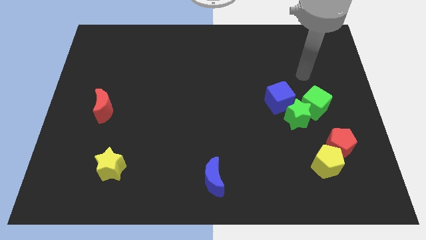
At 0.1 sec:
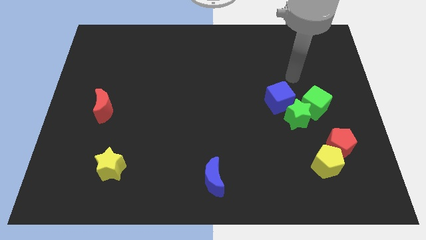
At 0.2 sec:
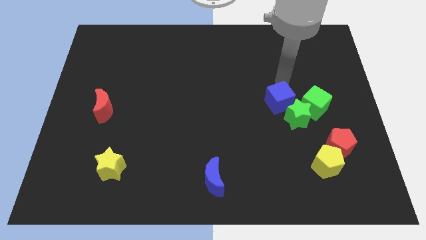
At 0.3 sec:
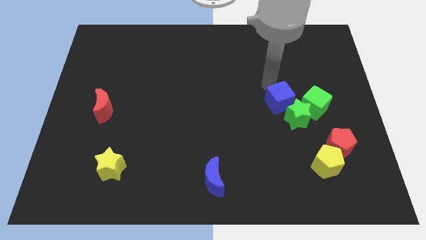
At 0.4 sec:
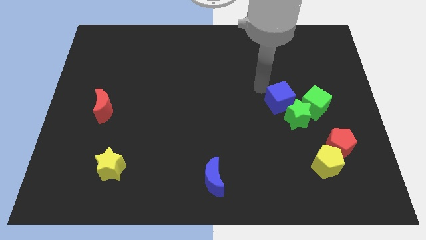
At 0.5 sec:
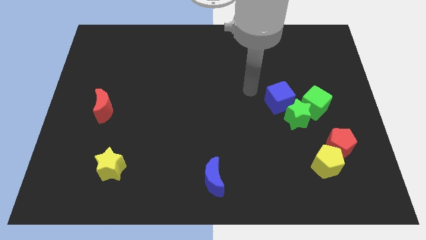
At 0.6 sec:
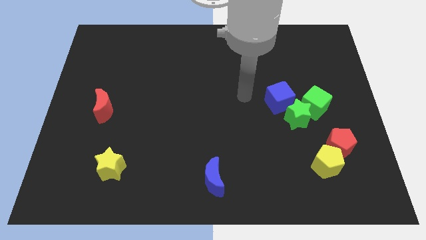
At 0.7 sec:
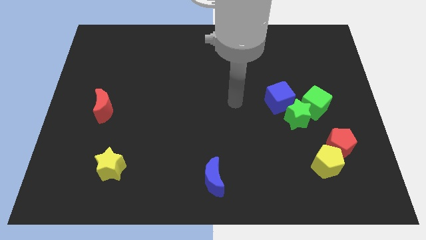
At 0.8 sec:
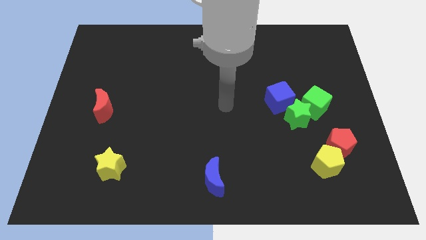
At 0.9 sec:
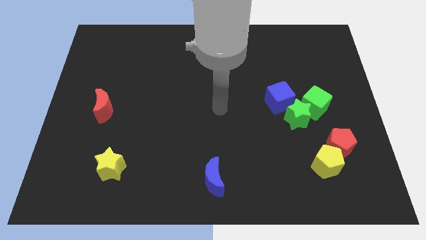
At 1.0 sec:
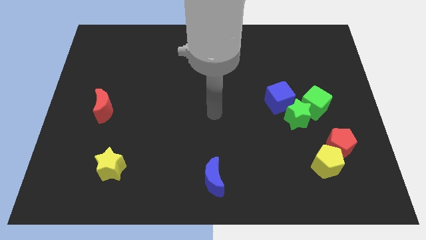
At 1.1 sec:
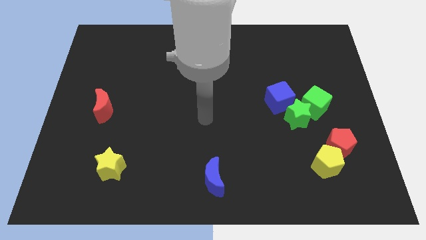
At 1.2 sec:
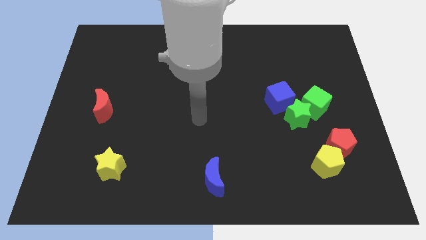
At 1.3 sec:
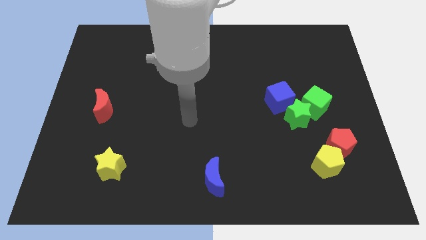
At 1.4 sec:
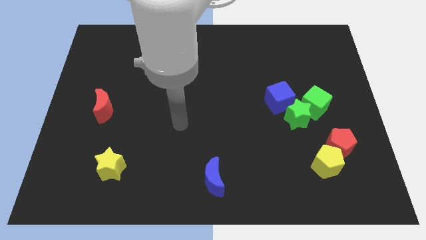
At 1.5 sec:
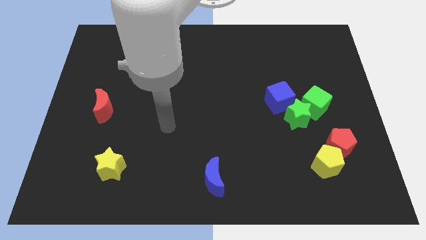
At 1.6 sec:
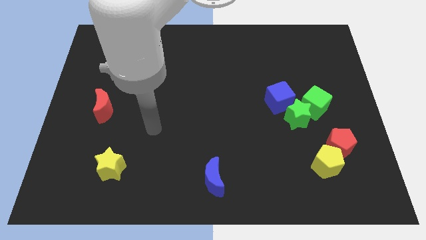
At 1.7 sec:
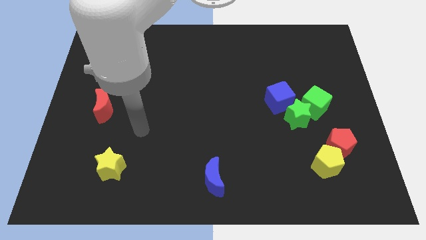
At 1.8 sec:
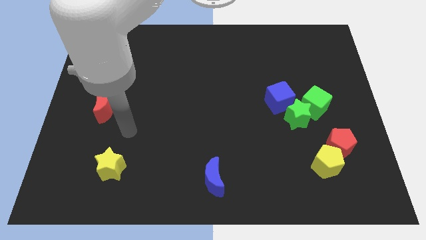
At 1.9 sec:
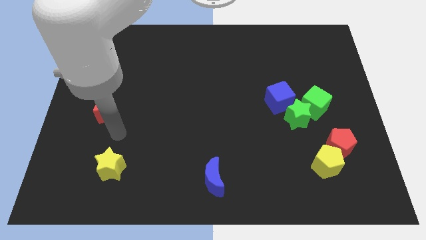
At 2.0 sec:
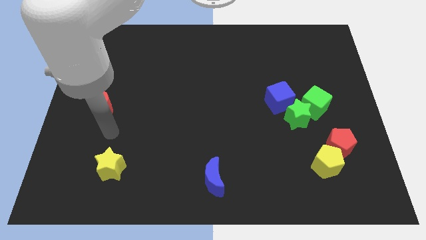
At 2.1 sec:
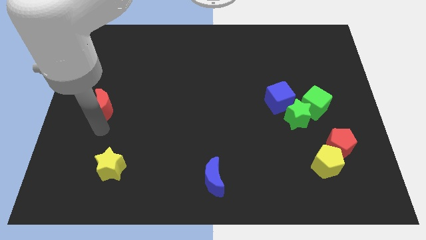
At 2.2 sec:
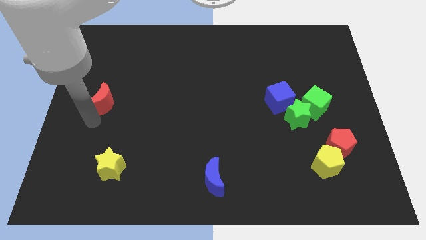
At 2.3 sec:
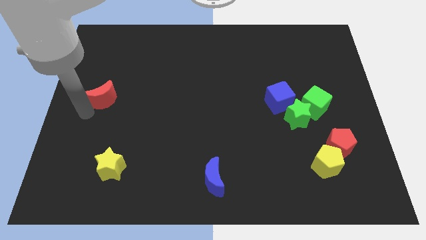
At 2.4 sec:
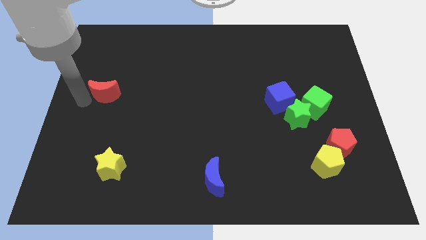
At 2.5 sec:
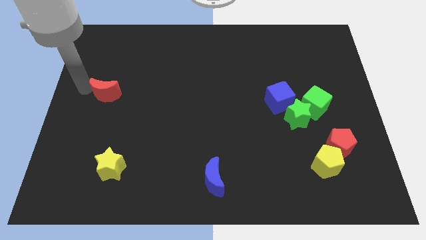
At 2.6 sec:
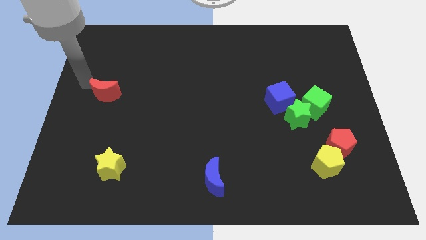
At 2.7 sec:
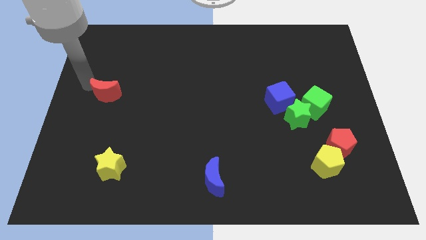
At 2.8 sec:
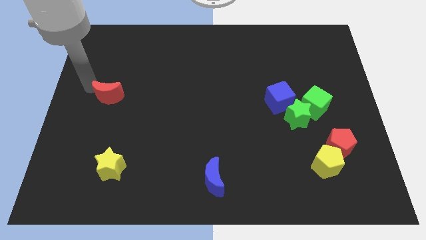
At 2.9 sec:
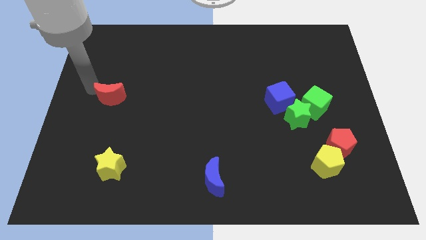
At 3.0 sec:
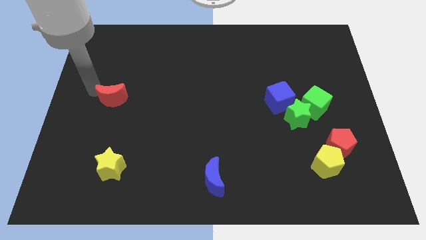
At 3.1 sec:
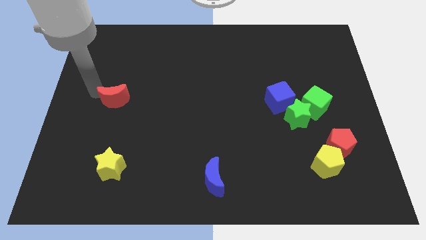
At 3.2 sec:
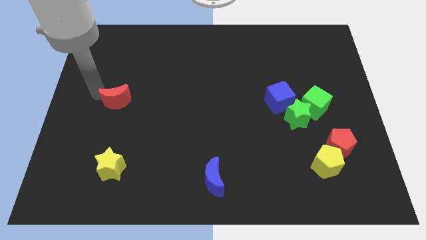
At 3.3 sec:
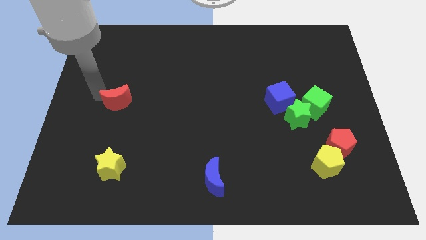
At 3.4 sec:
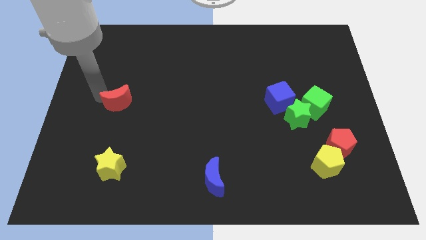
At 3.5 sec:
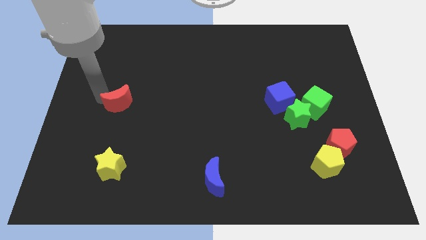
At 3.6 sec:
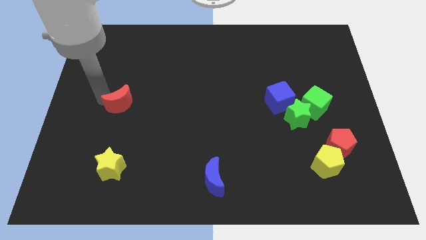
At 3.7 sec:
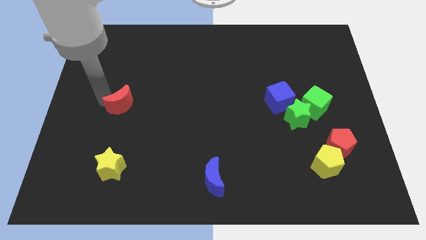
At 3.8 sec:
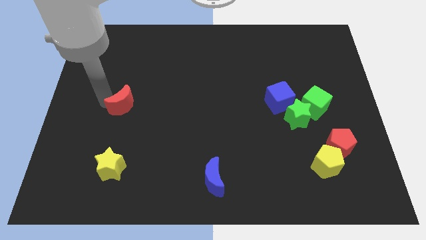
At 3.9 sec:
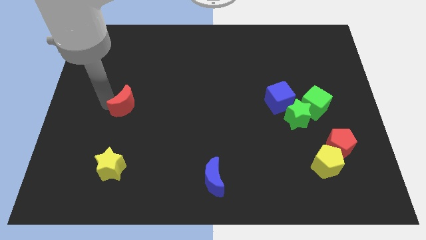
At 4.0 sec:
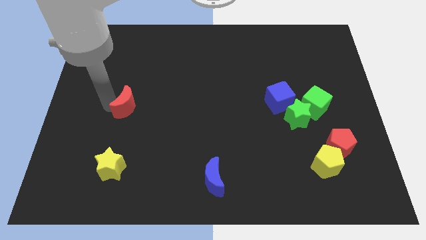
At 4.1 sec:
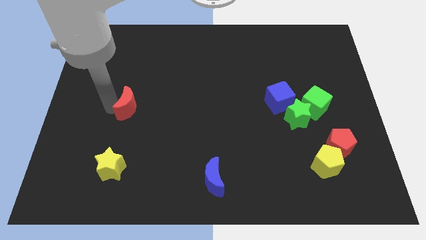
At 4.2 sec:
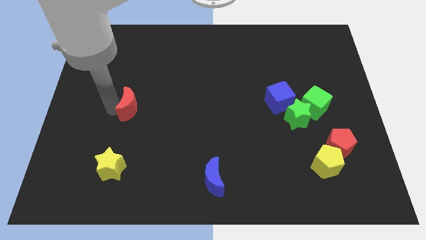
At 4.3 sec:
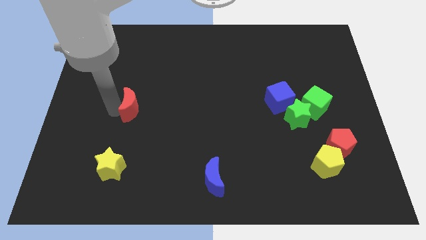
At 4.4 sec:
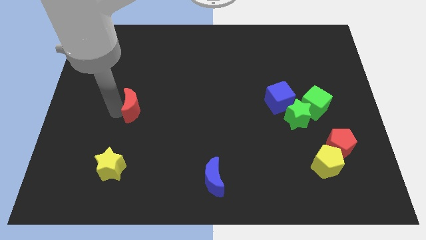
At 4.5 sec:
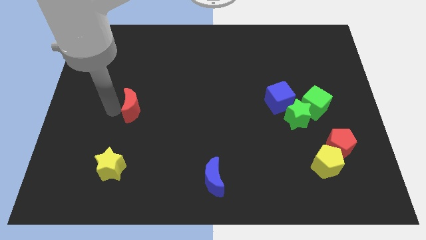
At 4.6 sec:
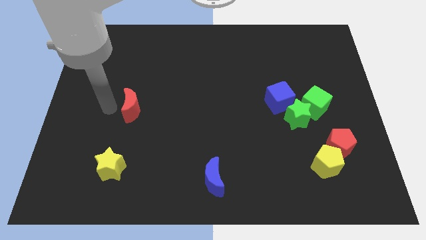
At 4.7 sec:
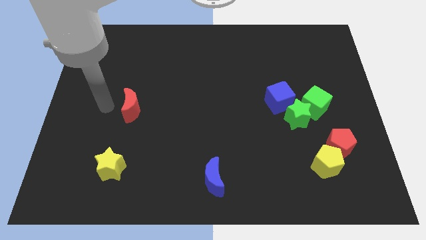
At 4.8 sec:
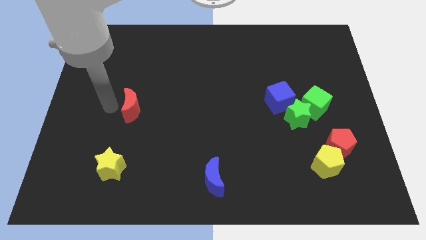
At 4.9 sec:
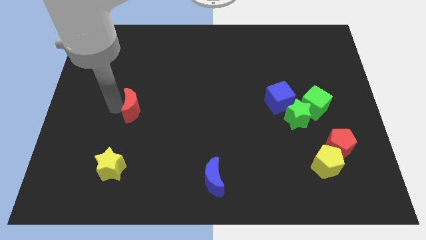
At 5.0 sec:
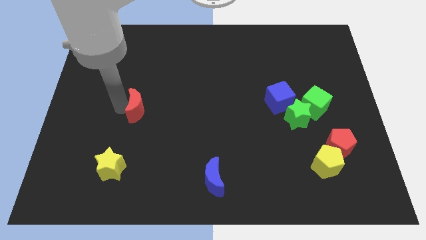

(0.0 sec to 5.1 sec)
push the red moon slightly right

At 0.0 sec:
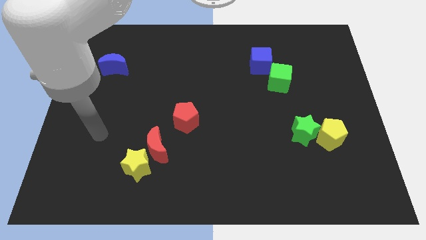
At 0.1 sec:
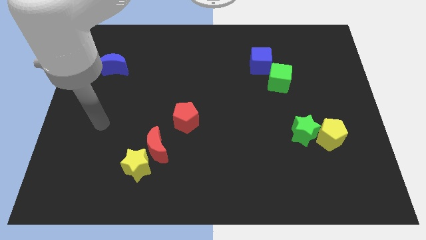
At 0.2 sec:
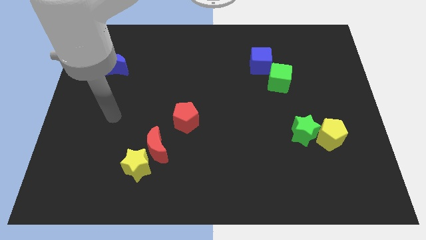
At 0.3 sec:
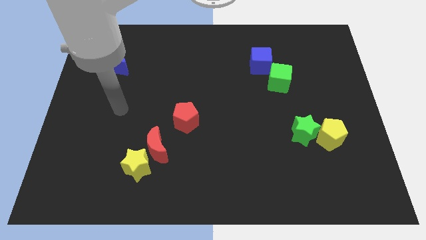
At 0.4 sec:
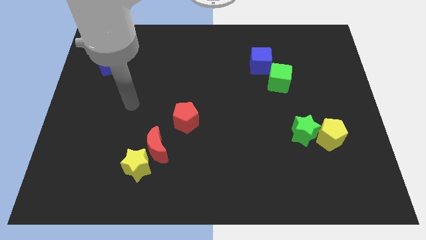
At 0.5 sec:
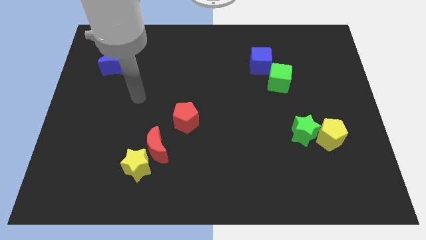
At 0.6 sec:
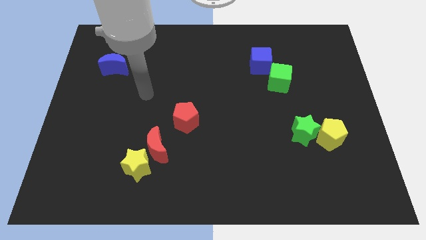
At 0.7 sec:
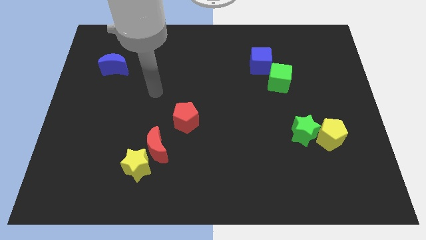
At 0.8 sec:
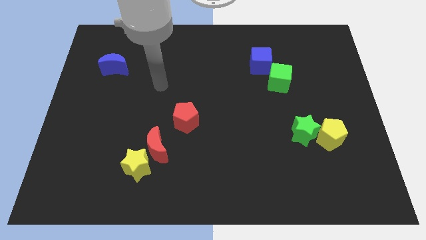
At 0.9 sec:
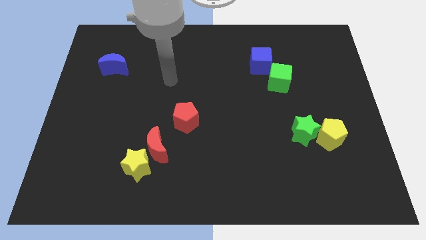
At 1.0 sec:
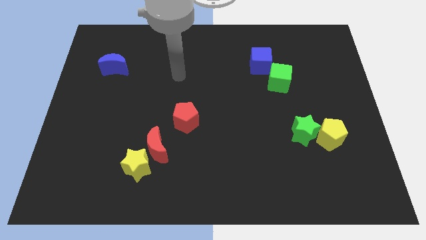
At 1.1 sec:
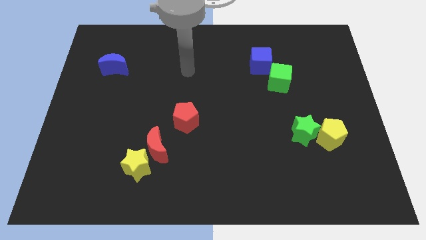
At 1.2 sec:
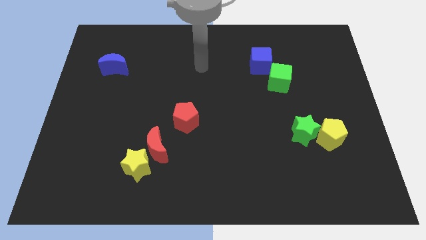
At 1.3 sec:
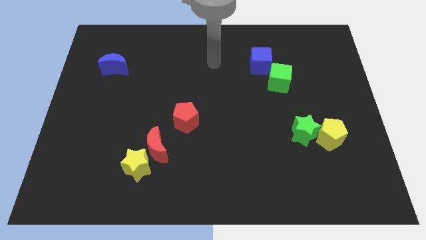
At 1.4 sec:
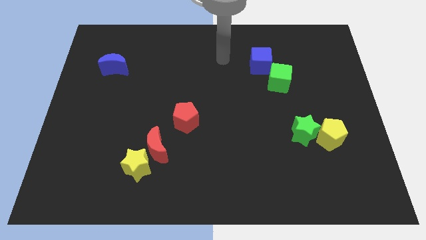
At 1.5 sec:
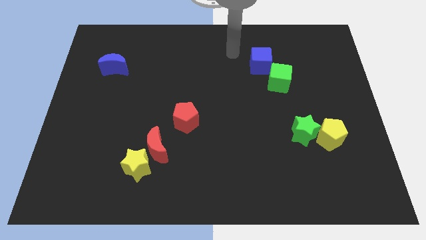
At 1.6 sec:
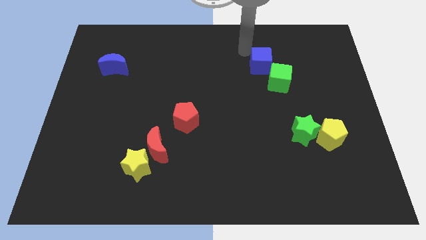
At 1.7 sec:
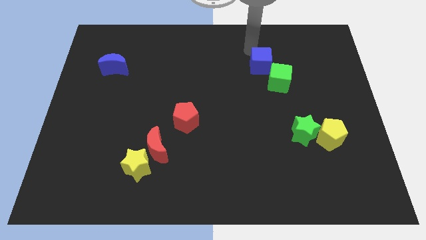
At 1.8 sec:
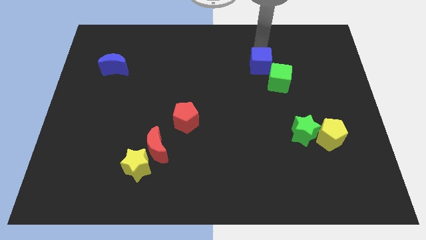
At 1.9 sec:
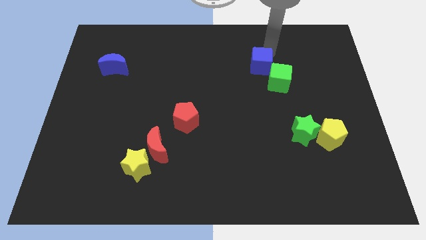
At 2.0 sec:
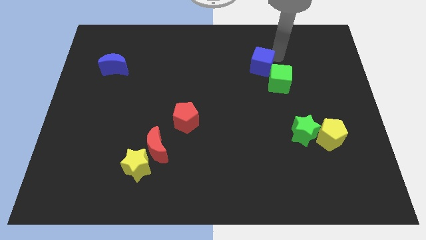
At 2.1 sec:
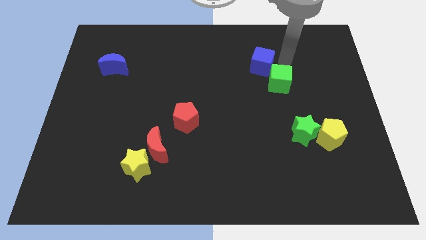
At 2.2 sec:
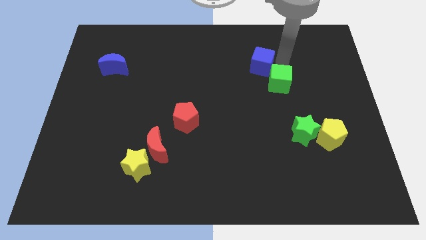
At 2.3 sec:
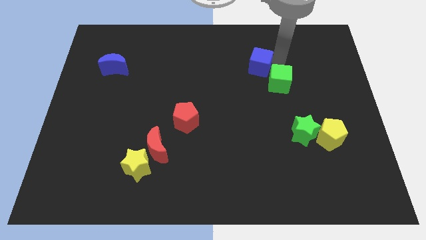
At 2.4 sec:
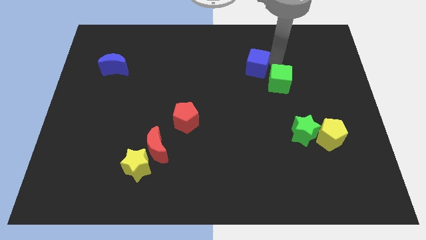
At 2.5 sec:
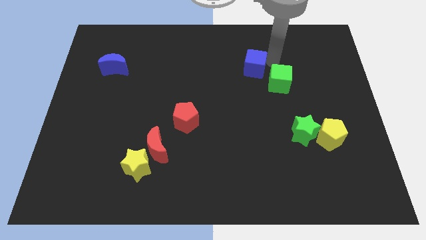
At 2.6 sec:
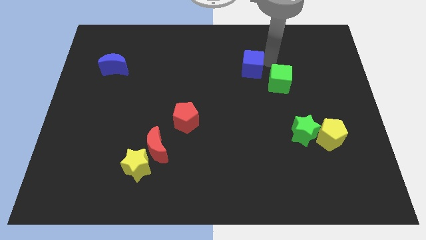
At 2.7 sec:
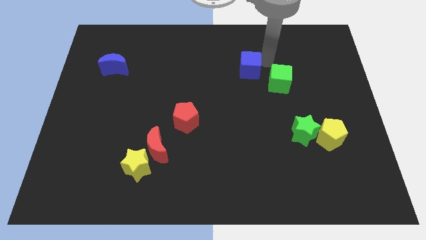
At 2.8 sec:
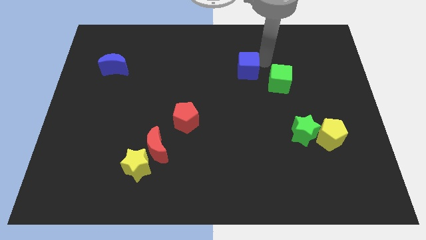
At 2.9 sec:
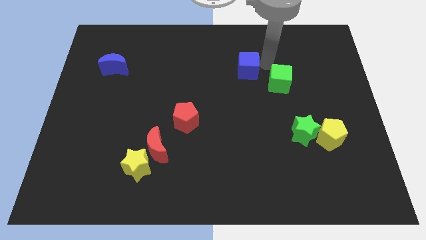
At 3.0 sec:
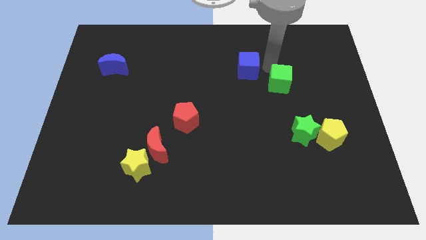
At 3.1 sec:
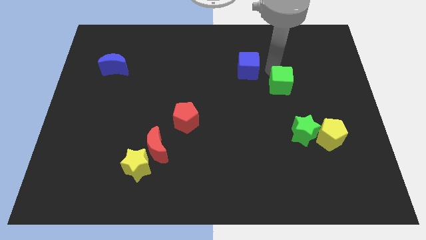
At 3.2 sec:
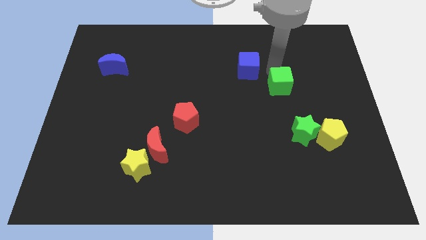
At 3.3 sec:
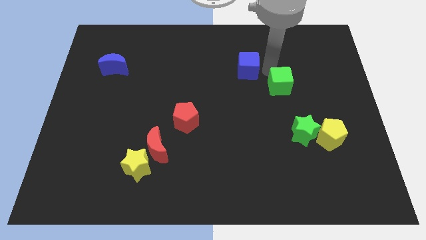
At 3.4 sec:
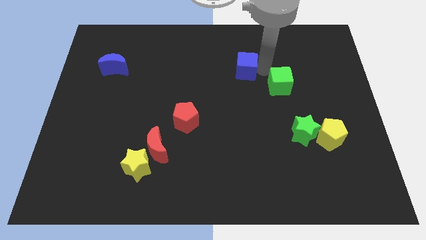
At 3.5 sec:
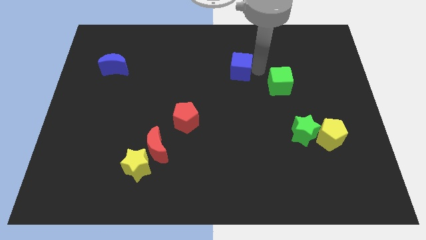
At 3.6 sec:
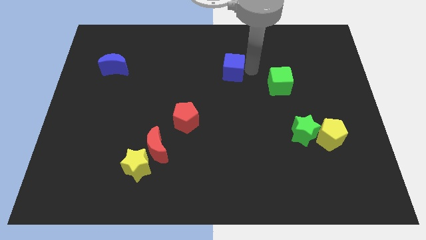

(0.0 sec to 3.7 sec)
slide the blue cube left slightly
